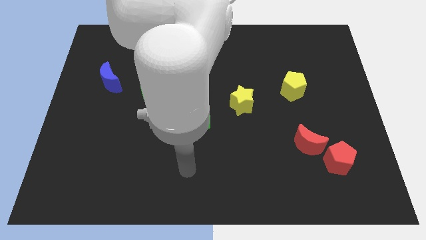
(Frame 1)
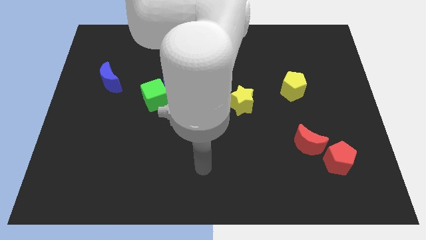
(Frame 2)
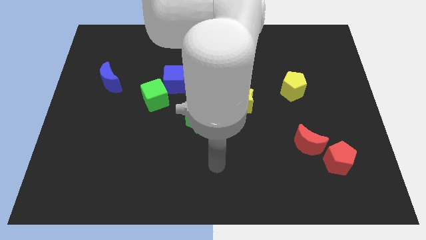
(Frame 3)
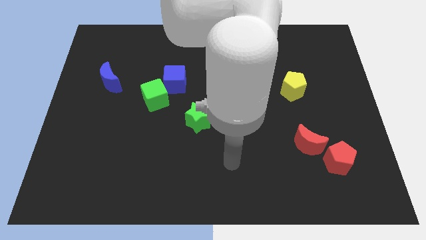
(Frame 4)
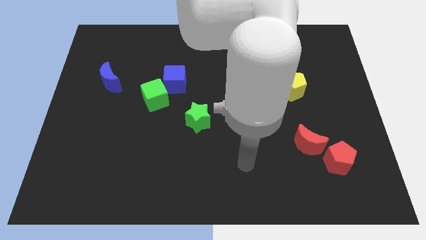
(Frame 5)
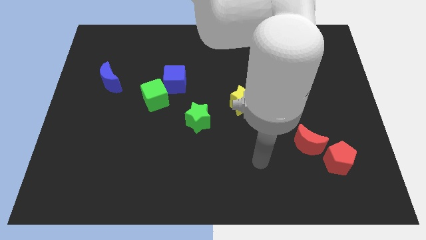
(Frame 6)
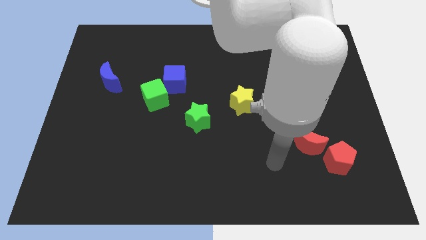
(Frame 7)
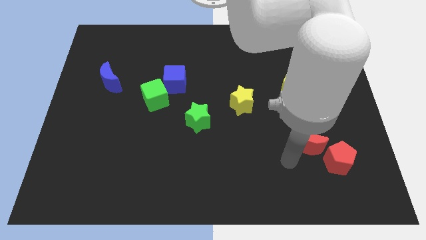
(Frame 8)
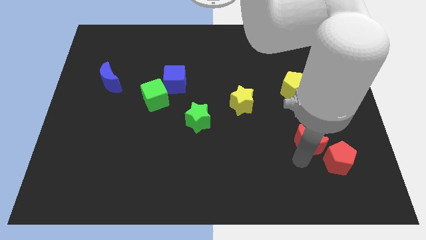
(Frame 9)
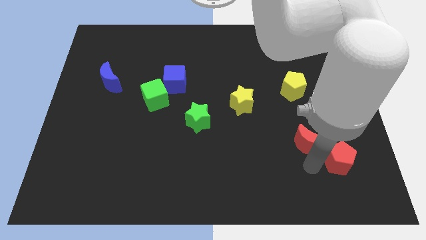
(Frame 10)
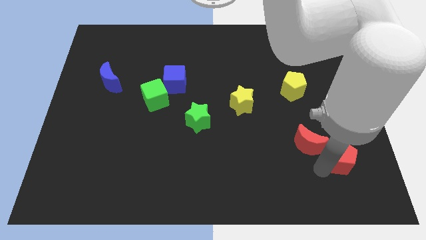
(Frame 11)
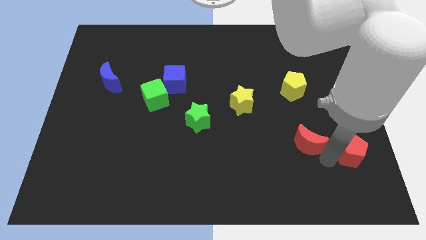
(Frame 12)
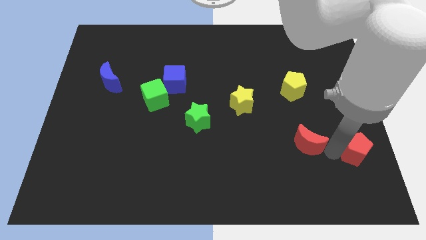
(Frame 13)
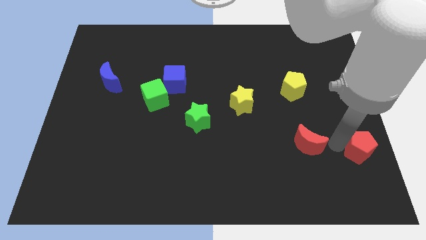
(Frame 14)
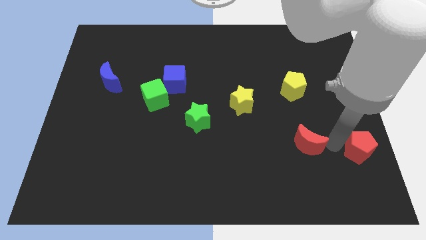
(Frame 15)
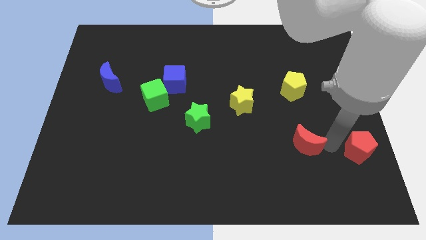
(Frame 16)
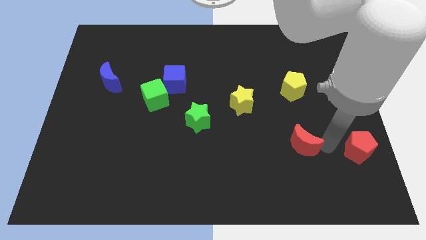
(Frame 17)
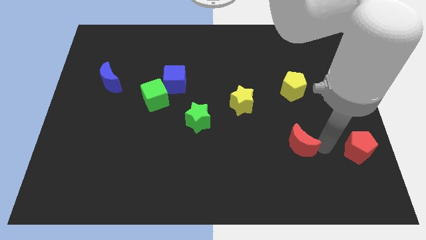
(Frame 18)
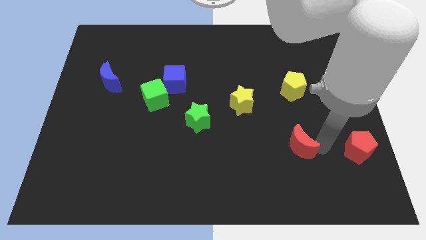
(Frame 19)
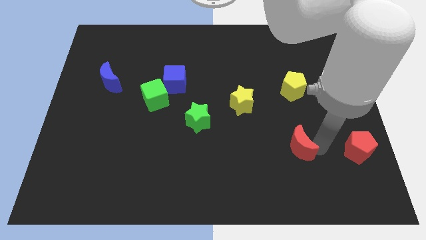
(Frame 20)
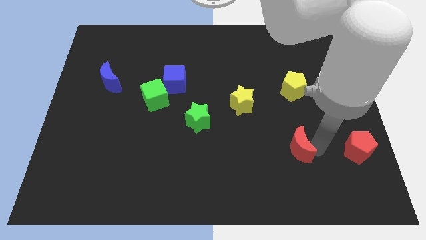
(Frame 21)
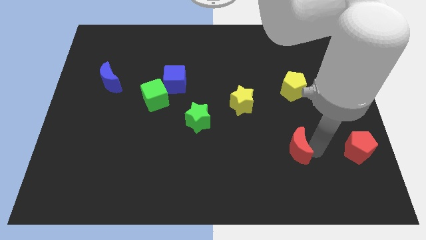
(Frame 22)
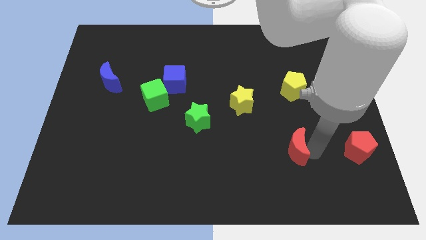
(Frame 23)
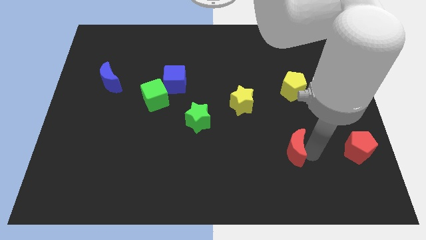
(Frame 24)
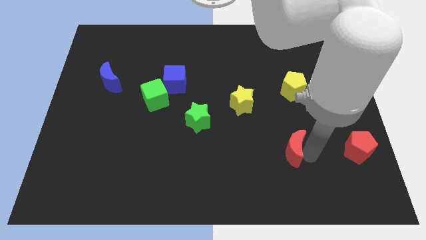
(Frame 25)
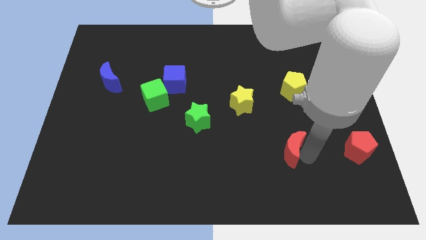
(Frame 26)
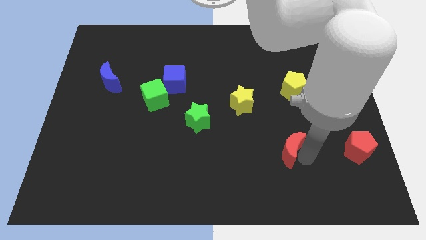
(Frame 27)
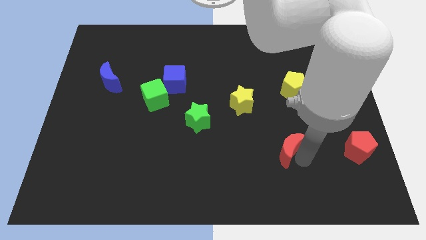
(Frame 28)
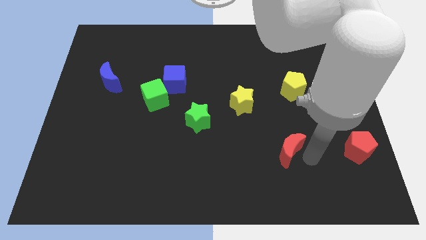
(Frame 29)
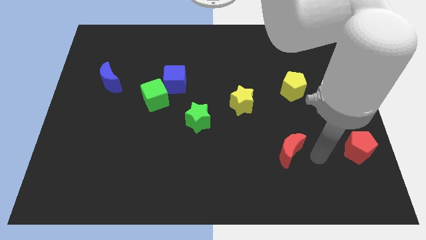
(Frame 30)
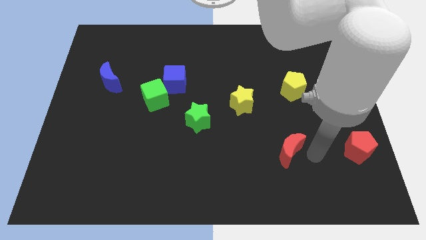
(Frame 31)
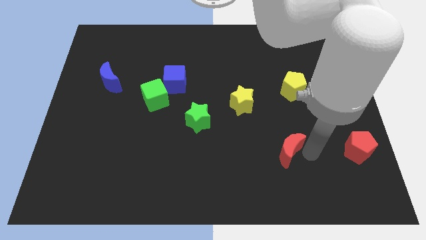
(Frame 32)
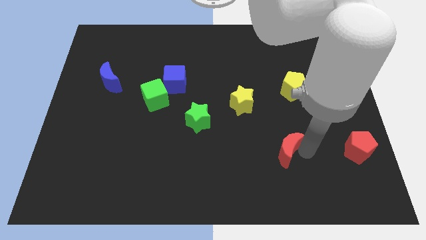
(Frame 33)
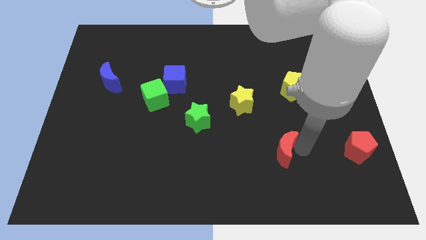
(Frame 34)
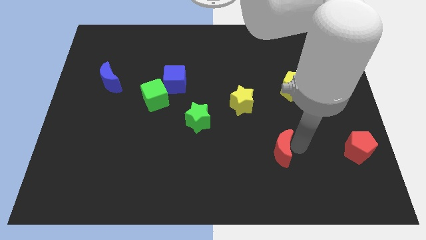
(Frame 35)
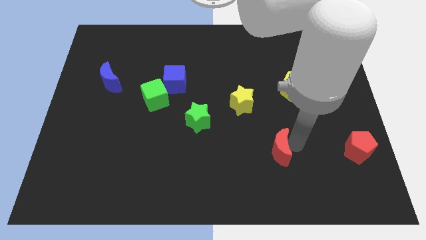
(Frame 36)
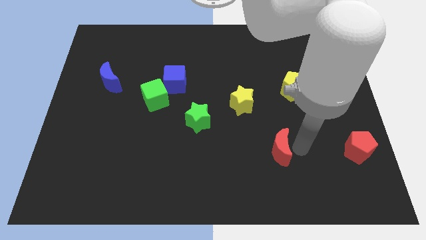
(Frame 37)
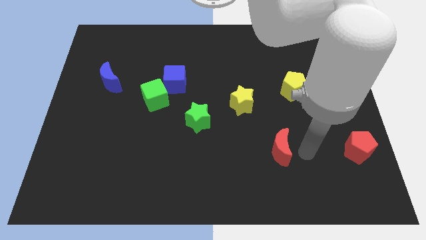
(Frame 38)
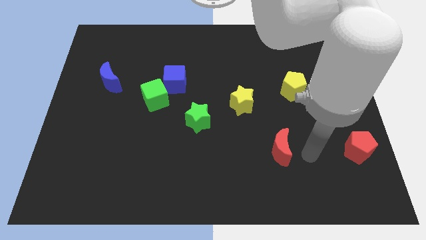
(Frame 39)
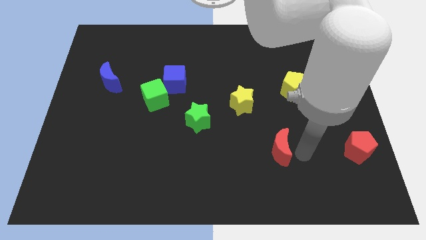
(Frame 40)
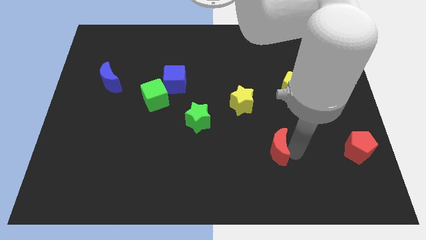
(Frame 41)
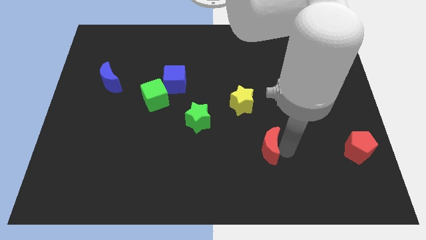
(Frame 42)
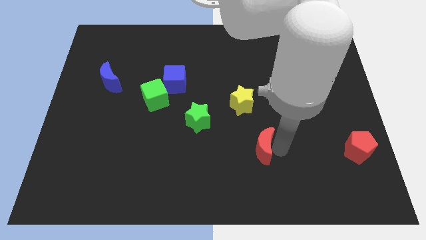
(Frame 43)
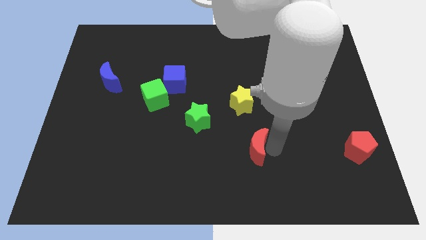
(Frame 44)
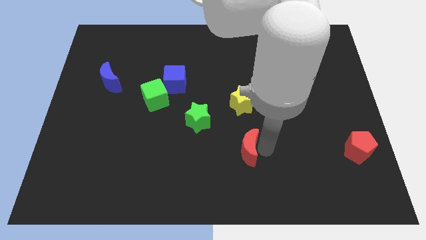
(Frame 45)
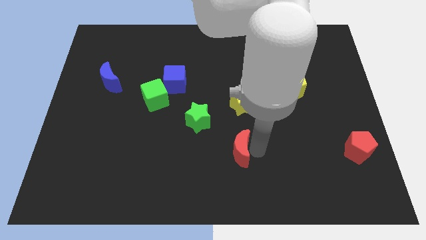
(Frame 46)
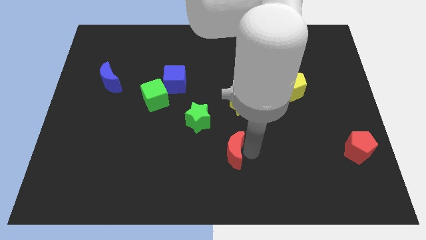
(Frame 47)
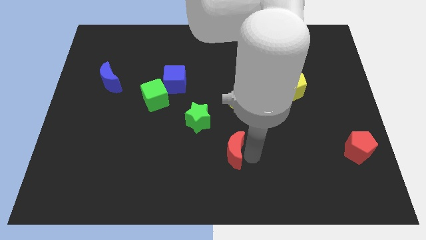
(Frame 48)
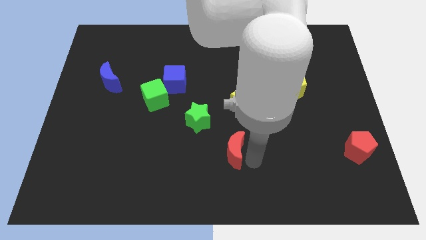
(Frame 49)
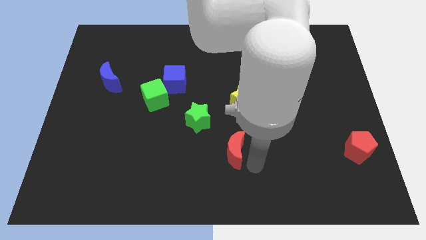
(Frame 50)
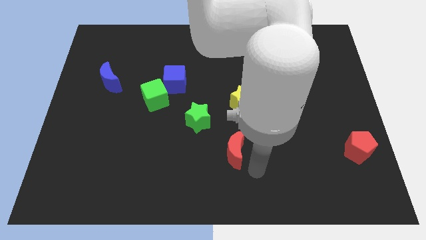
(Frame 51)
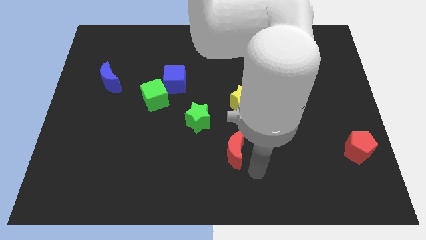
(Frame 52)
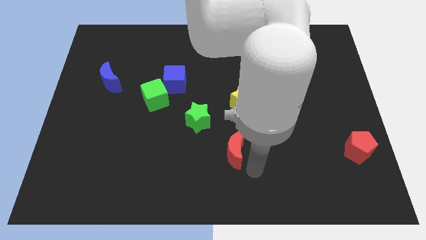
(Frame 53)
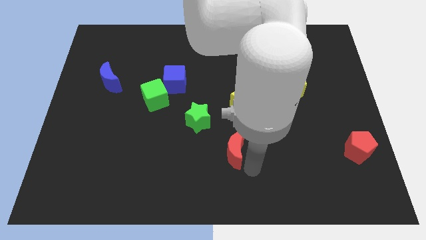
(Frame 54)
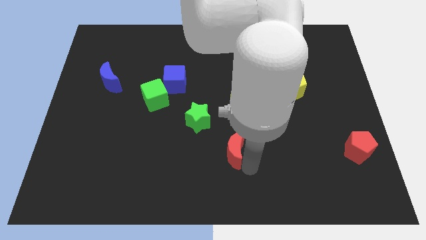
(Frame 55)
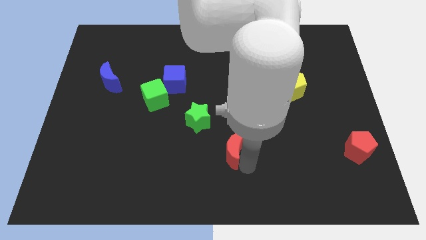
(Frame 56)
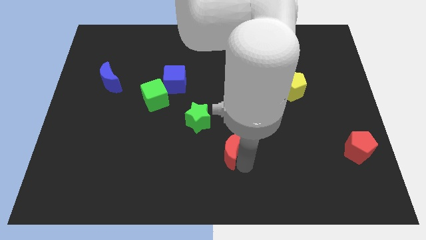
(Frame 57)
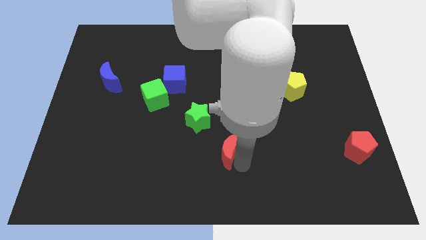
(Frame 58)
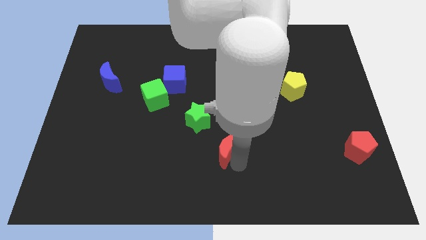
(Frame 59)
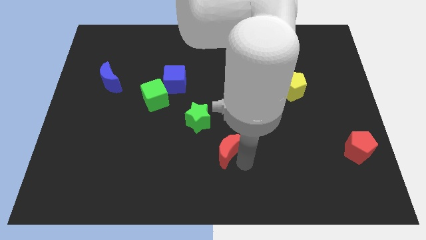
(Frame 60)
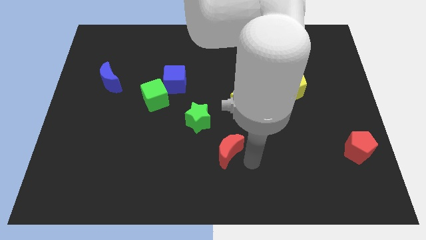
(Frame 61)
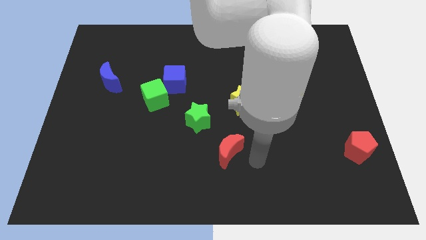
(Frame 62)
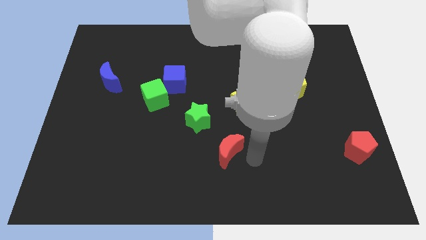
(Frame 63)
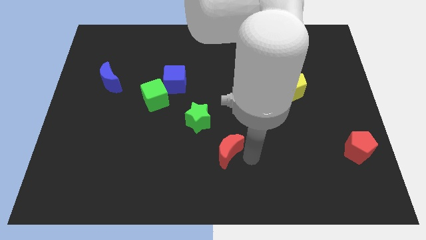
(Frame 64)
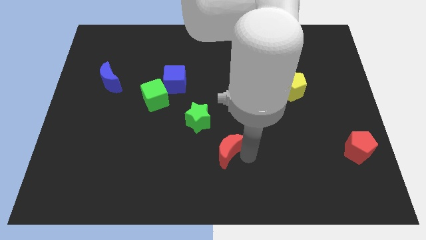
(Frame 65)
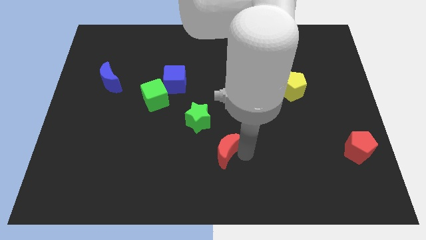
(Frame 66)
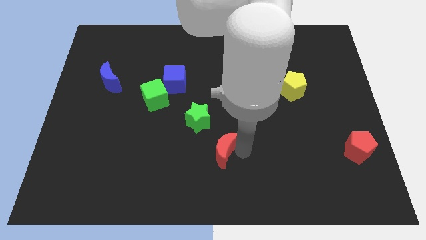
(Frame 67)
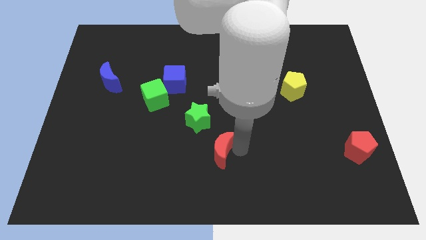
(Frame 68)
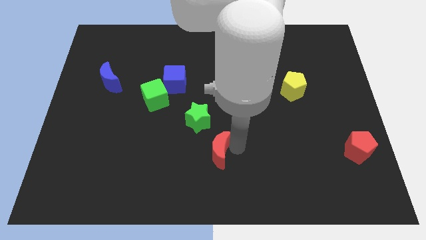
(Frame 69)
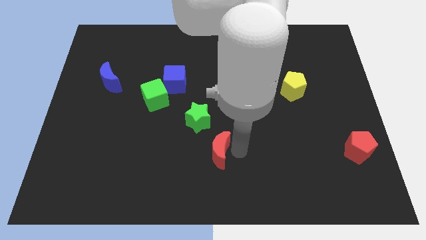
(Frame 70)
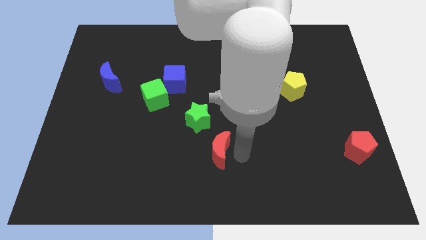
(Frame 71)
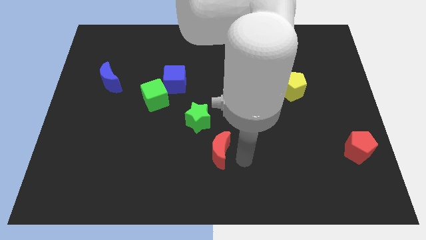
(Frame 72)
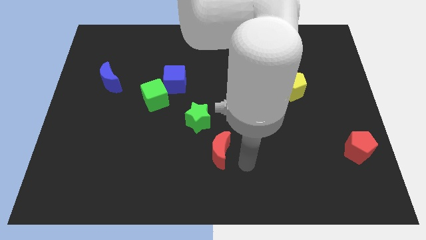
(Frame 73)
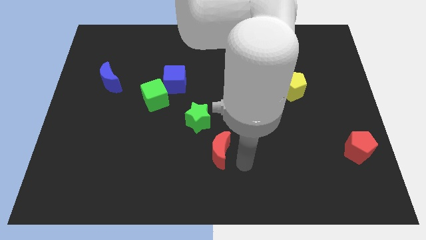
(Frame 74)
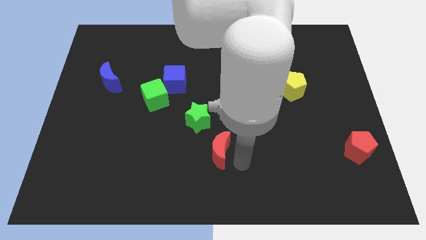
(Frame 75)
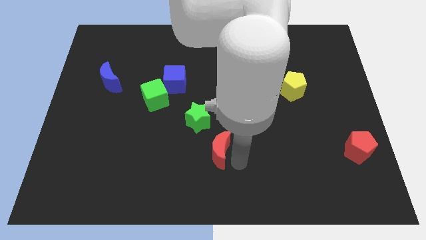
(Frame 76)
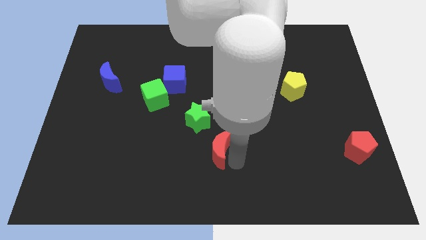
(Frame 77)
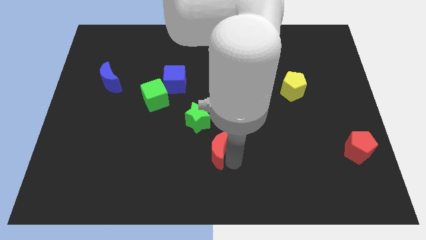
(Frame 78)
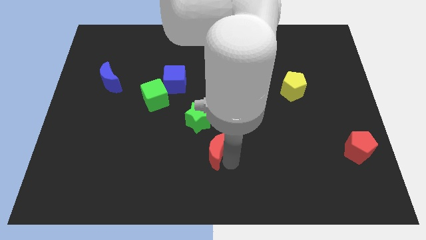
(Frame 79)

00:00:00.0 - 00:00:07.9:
move the red moon left
